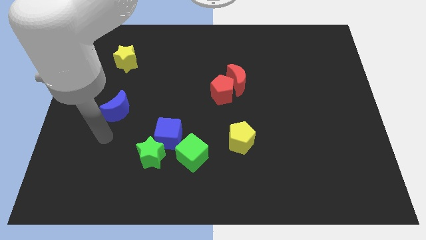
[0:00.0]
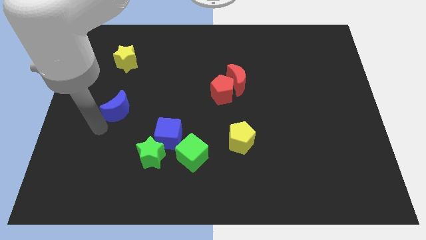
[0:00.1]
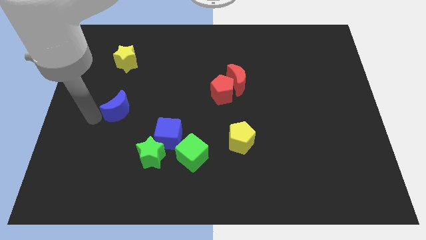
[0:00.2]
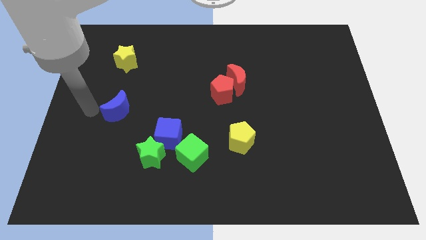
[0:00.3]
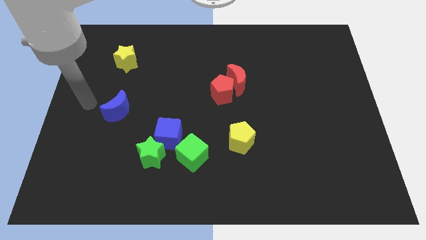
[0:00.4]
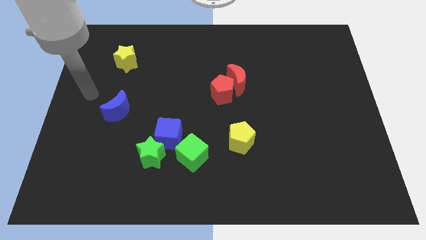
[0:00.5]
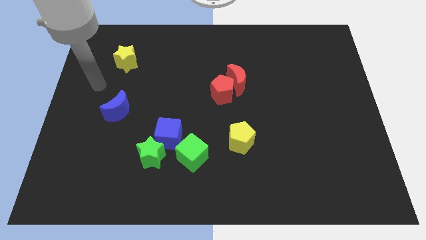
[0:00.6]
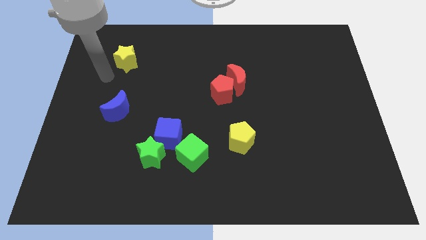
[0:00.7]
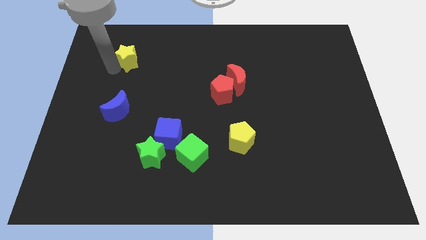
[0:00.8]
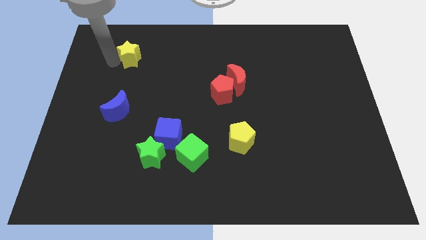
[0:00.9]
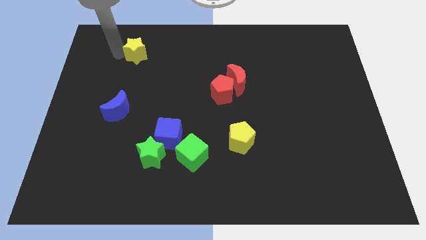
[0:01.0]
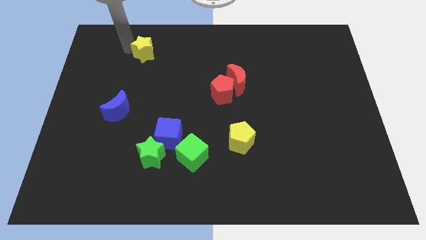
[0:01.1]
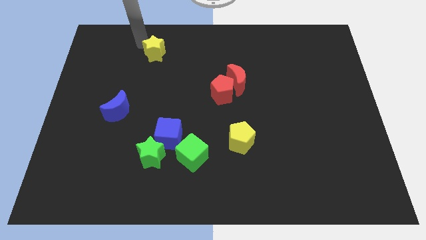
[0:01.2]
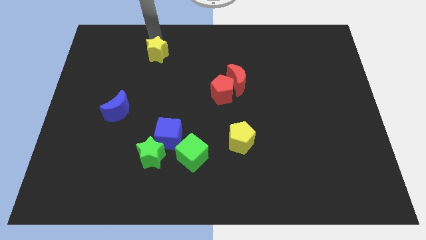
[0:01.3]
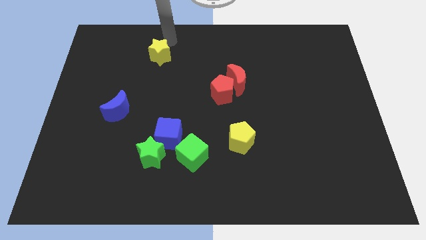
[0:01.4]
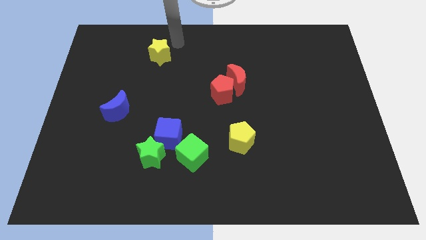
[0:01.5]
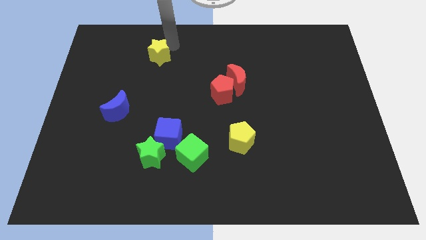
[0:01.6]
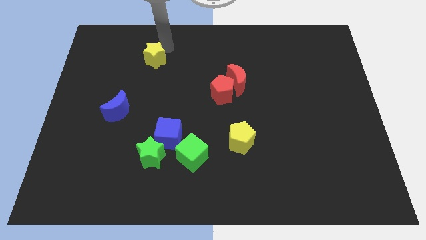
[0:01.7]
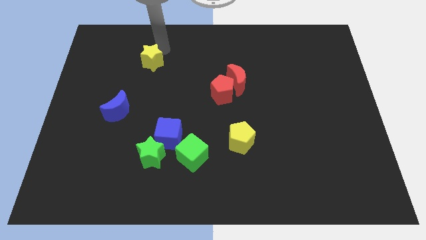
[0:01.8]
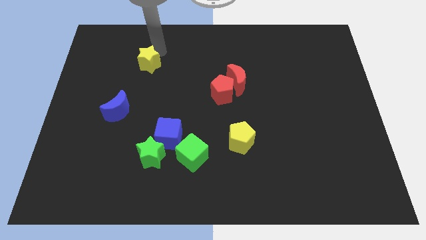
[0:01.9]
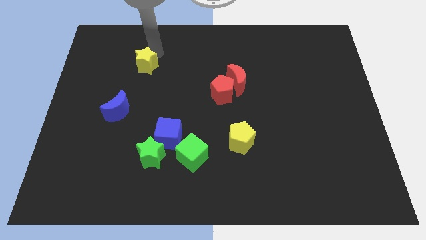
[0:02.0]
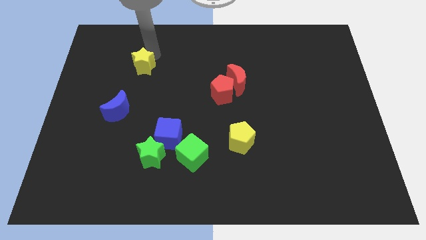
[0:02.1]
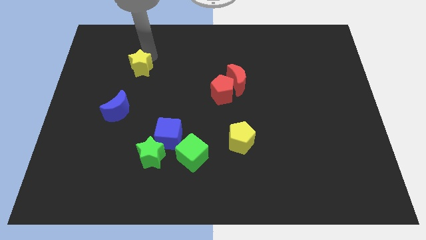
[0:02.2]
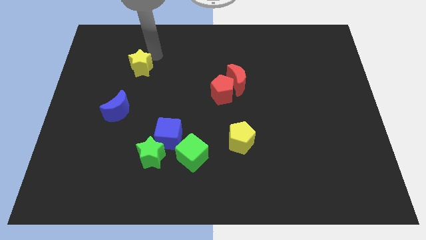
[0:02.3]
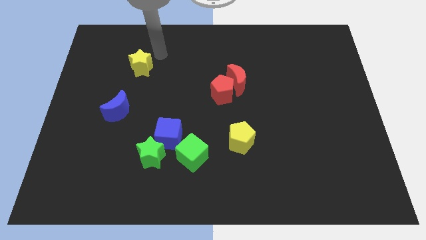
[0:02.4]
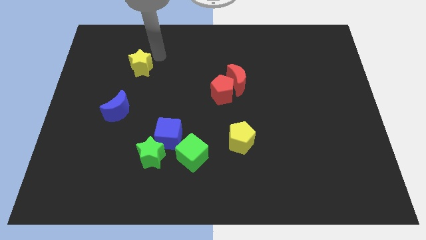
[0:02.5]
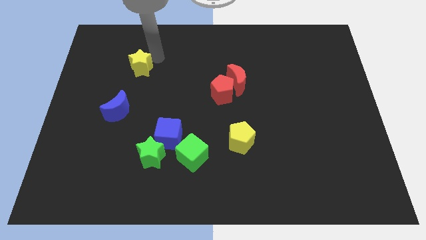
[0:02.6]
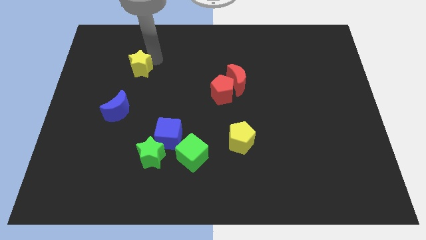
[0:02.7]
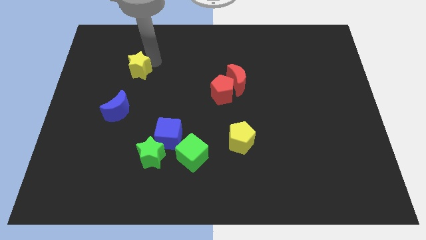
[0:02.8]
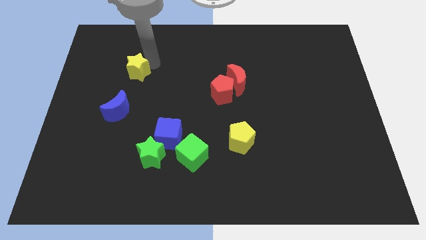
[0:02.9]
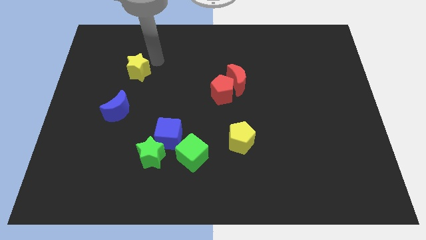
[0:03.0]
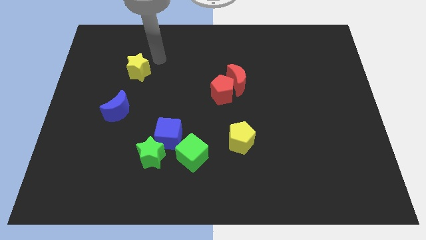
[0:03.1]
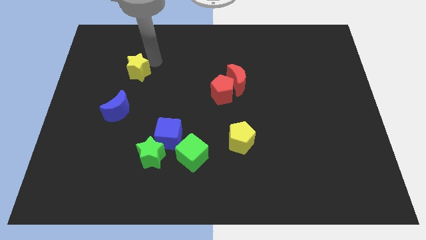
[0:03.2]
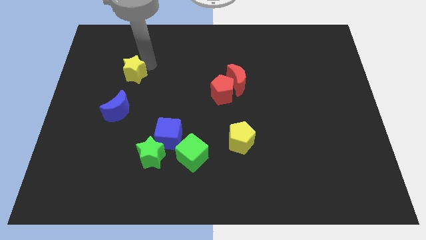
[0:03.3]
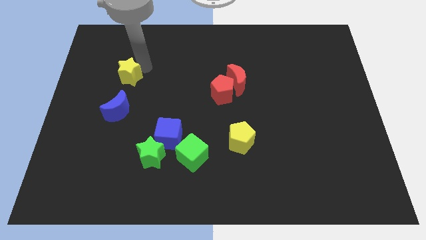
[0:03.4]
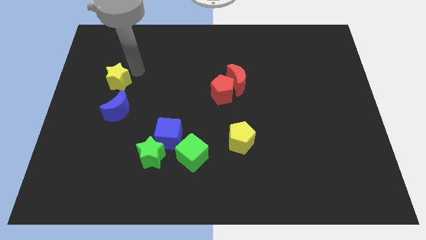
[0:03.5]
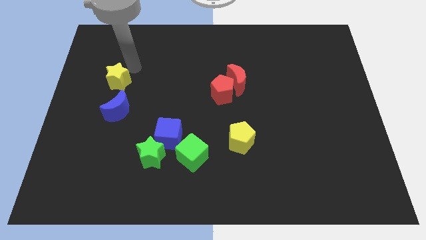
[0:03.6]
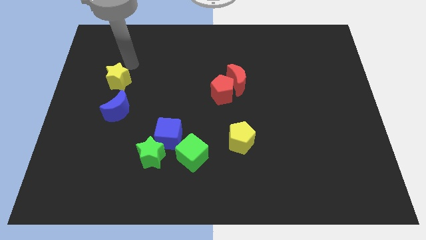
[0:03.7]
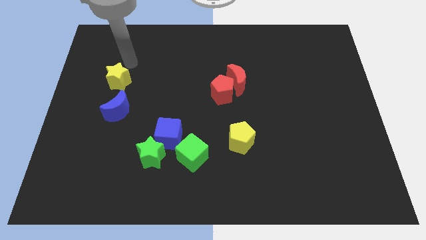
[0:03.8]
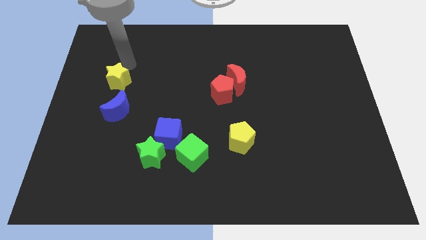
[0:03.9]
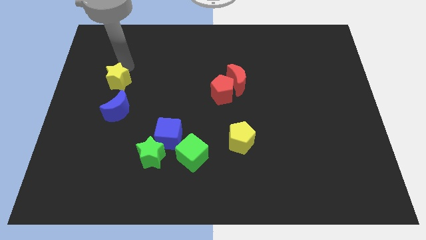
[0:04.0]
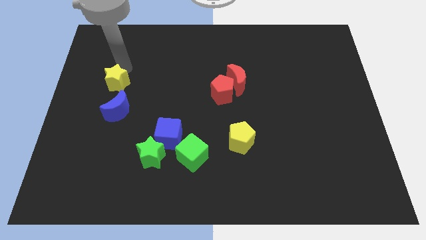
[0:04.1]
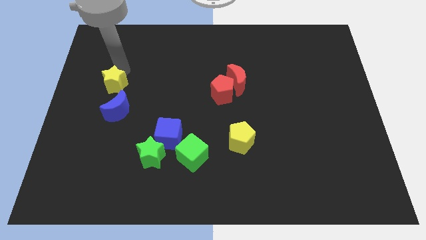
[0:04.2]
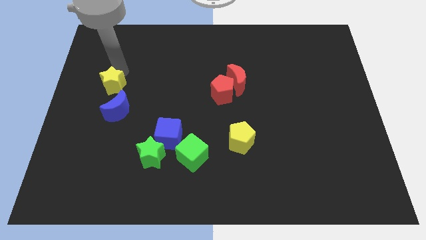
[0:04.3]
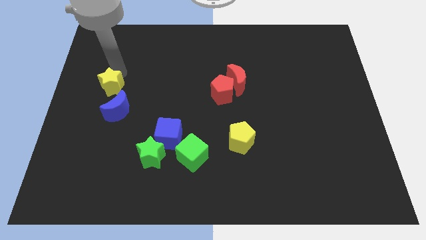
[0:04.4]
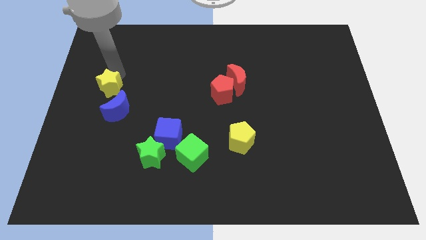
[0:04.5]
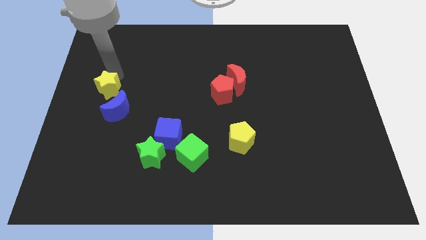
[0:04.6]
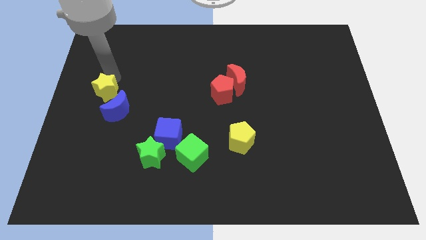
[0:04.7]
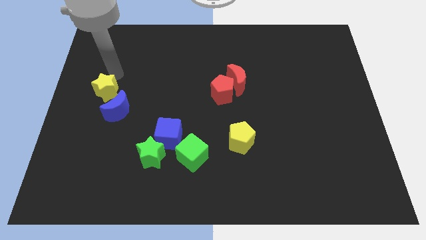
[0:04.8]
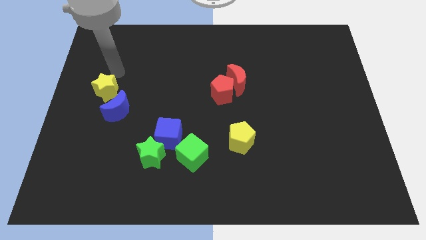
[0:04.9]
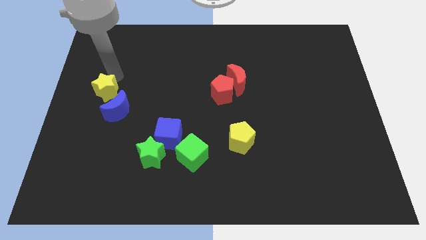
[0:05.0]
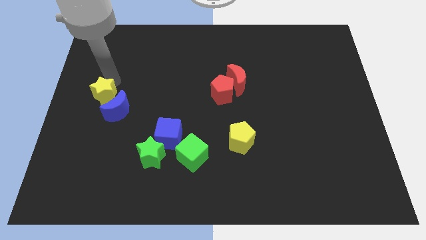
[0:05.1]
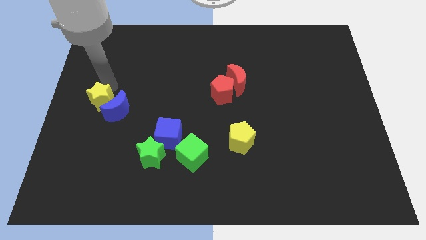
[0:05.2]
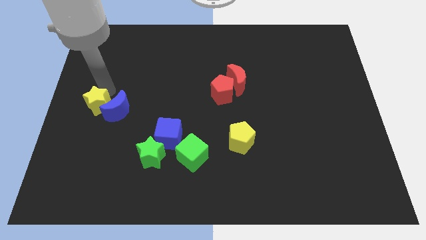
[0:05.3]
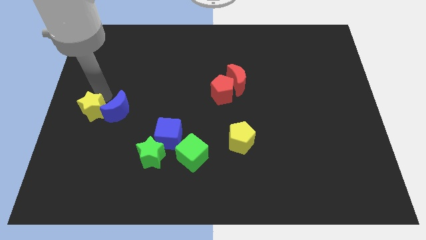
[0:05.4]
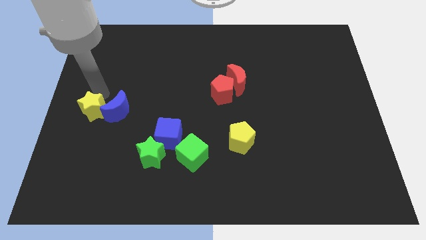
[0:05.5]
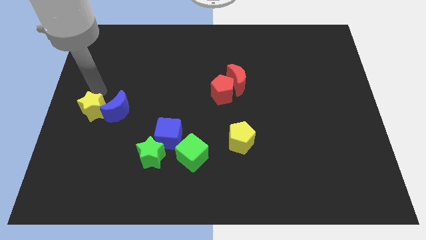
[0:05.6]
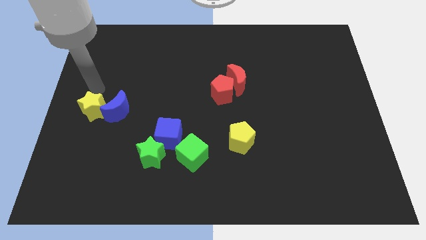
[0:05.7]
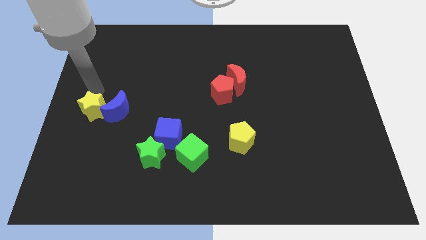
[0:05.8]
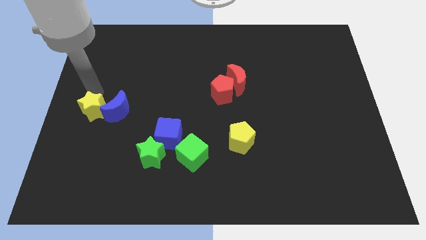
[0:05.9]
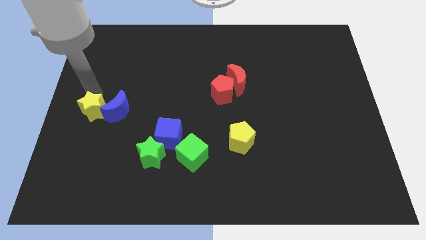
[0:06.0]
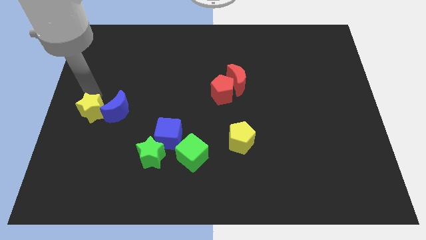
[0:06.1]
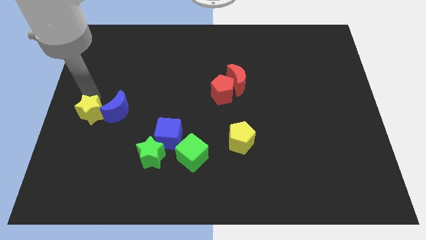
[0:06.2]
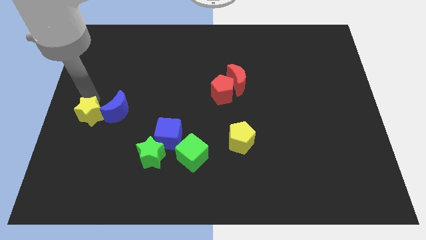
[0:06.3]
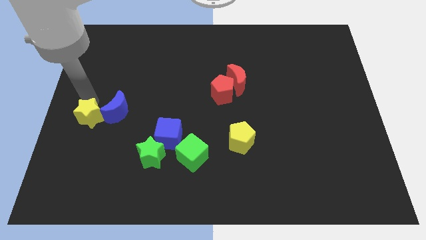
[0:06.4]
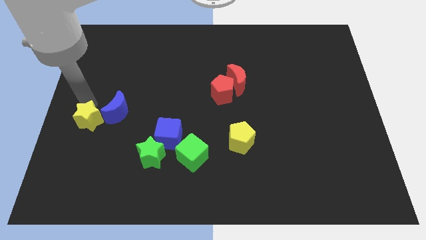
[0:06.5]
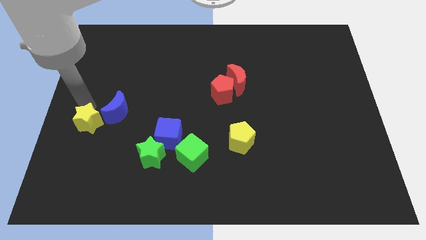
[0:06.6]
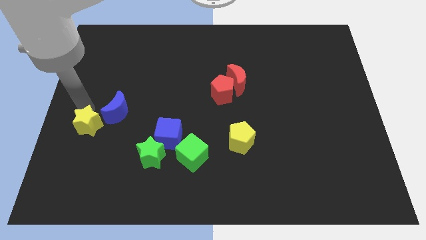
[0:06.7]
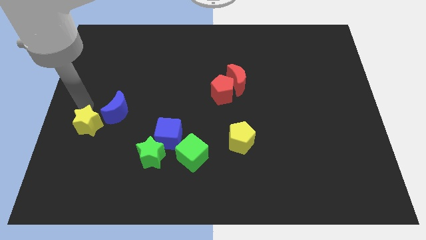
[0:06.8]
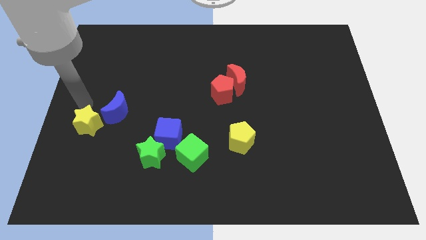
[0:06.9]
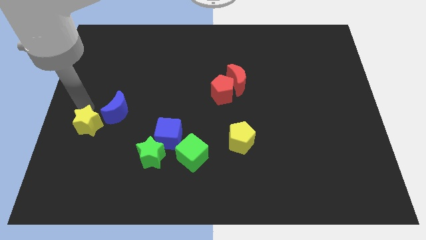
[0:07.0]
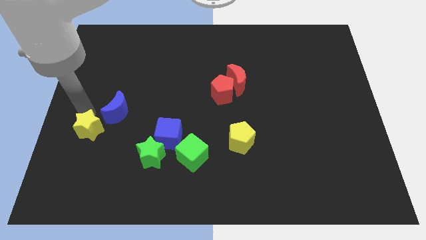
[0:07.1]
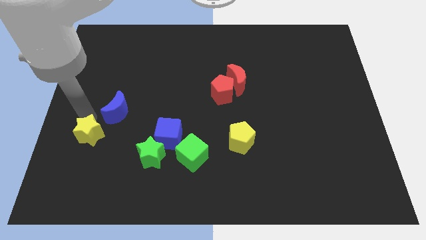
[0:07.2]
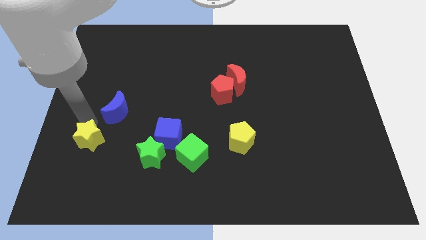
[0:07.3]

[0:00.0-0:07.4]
move the yellow star left of the green star
